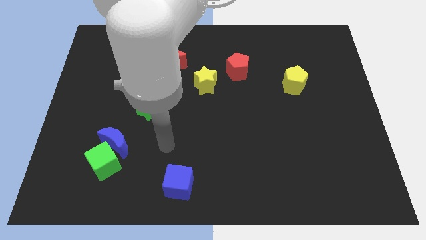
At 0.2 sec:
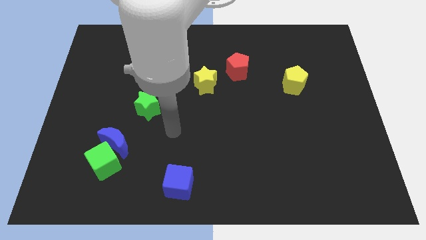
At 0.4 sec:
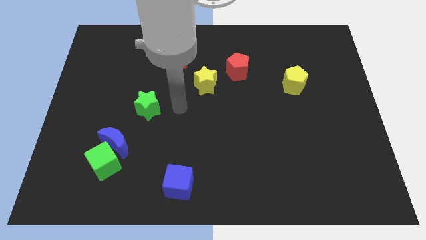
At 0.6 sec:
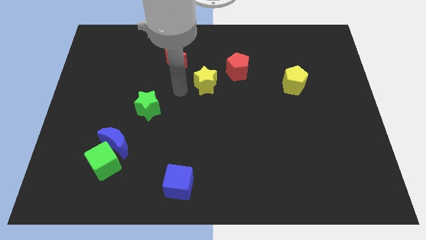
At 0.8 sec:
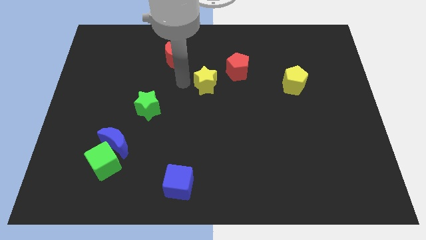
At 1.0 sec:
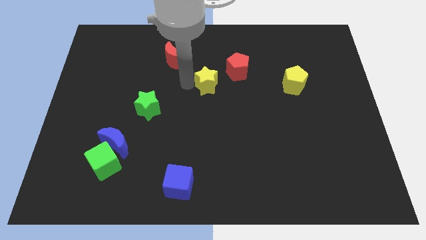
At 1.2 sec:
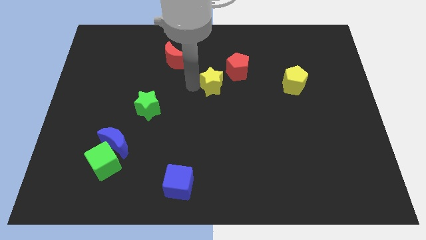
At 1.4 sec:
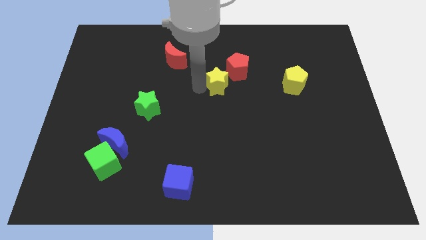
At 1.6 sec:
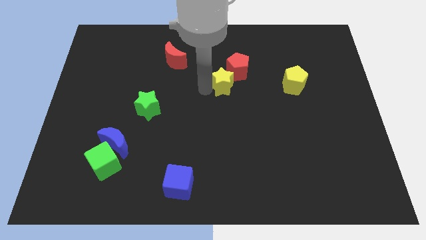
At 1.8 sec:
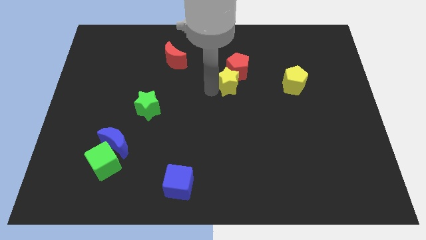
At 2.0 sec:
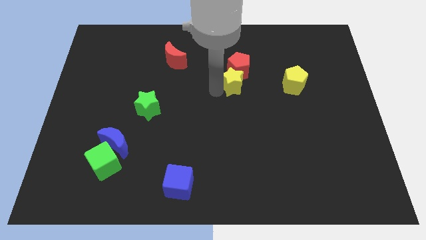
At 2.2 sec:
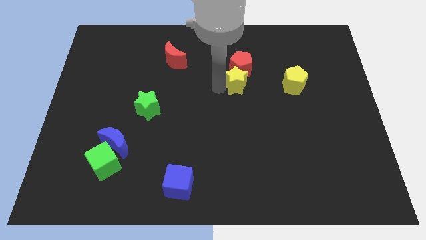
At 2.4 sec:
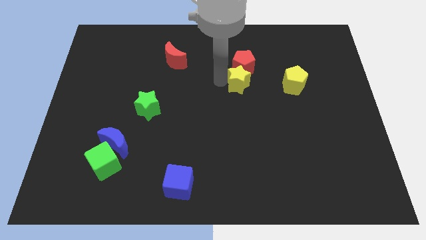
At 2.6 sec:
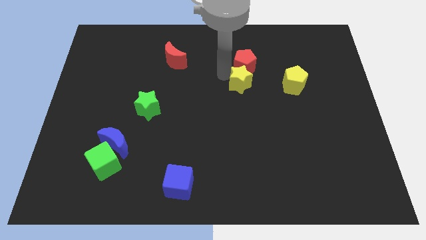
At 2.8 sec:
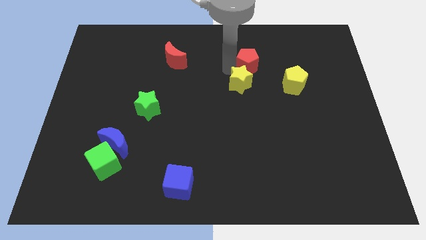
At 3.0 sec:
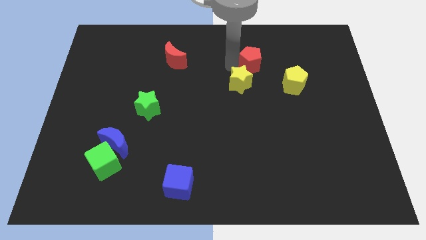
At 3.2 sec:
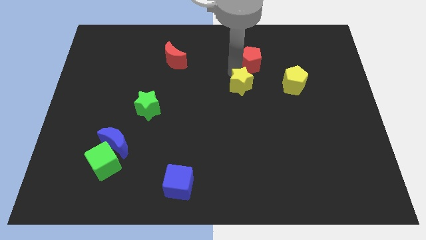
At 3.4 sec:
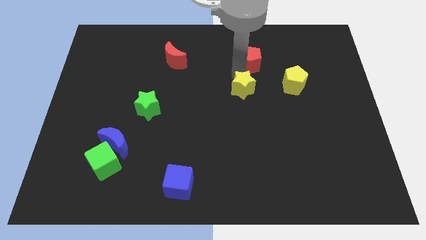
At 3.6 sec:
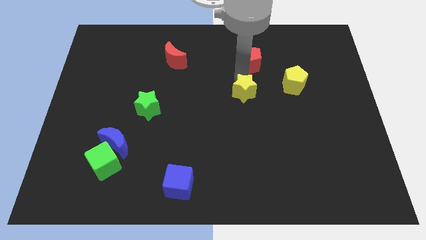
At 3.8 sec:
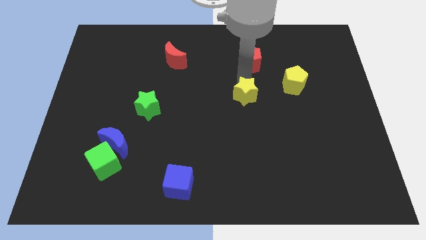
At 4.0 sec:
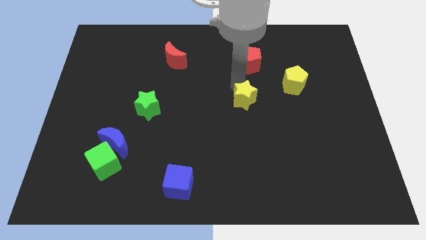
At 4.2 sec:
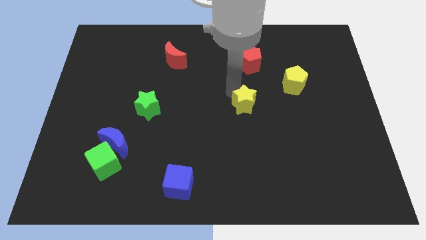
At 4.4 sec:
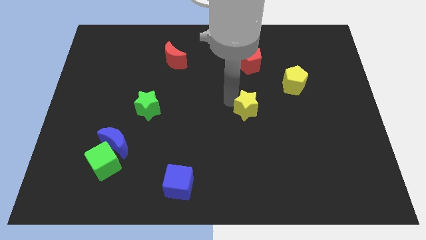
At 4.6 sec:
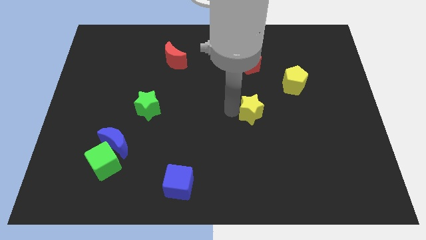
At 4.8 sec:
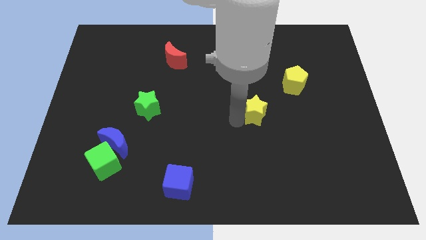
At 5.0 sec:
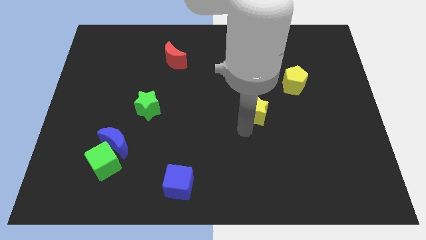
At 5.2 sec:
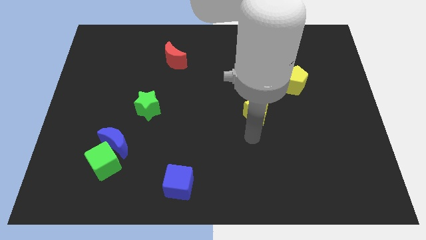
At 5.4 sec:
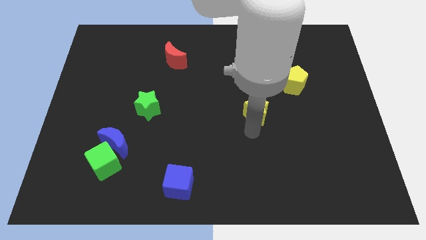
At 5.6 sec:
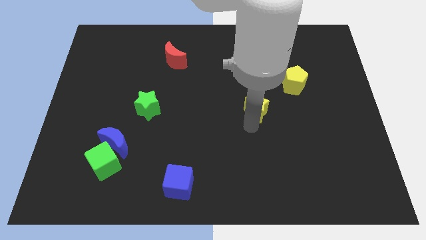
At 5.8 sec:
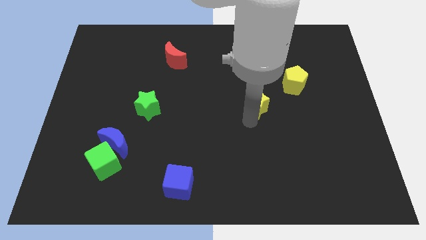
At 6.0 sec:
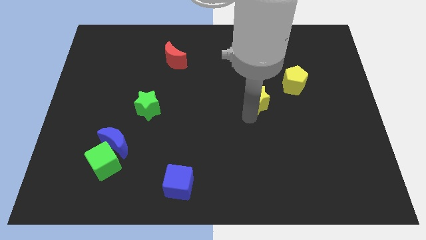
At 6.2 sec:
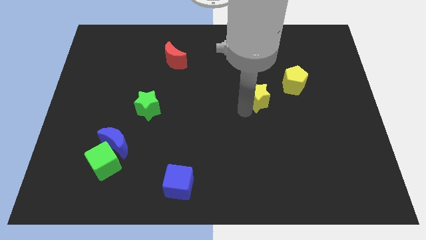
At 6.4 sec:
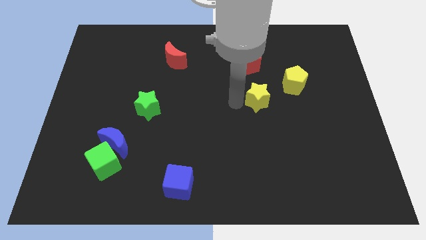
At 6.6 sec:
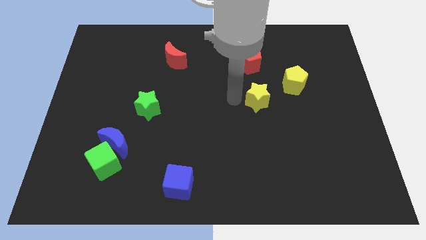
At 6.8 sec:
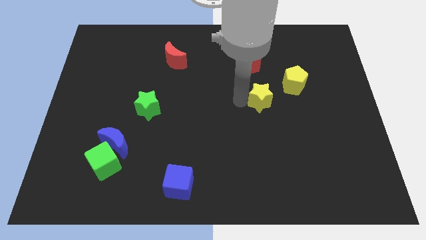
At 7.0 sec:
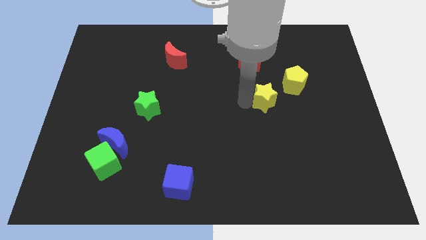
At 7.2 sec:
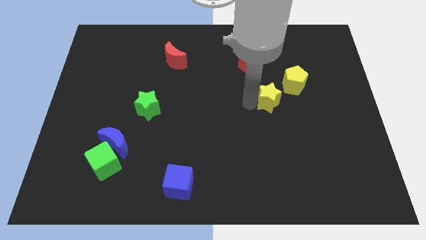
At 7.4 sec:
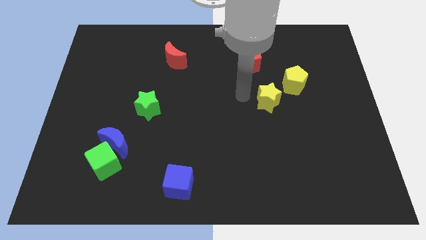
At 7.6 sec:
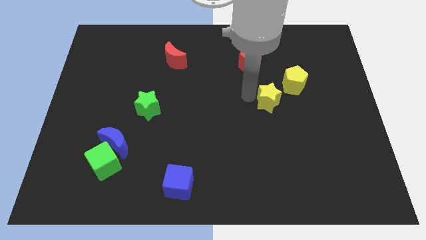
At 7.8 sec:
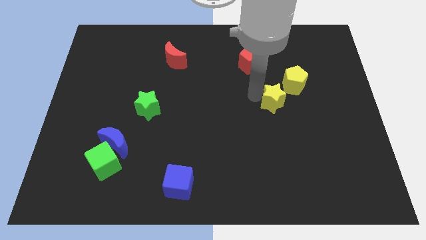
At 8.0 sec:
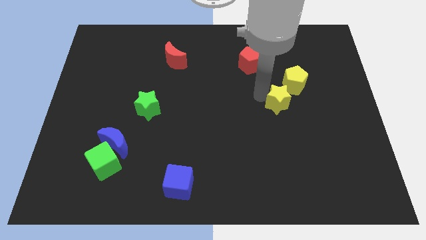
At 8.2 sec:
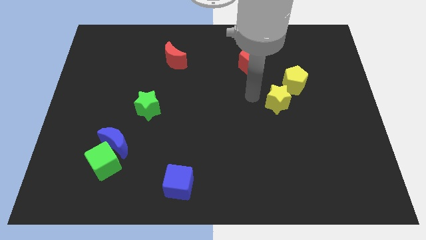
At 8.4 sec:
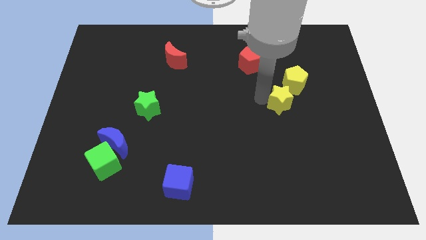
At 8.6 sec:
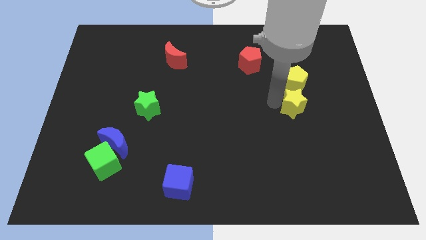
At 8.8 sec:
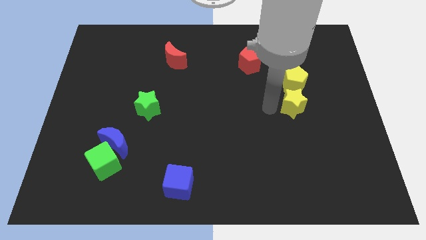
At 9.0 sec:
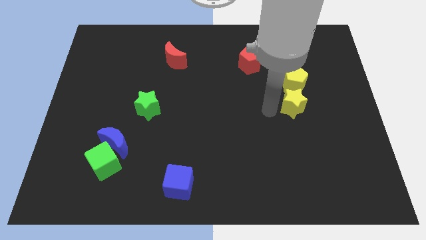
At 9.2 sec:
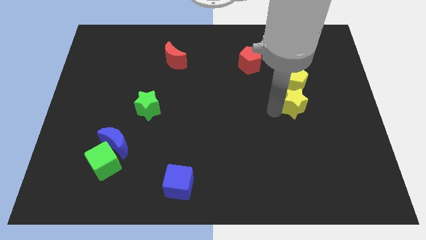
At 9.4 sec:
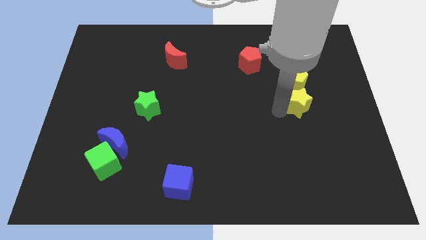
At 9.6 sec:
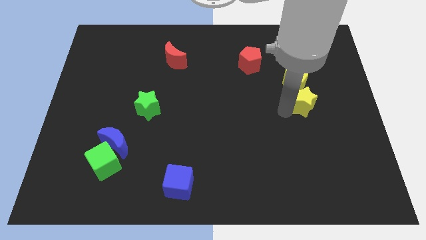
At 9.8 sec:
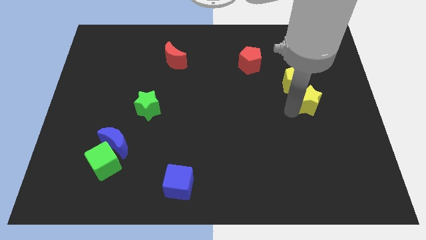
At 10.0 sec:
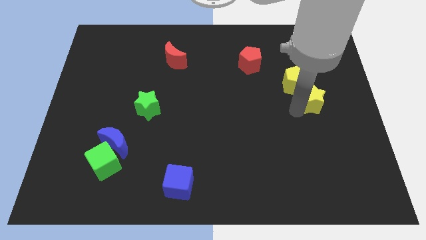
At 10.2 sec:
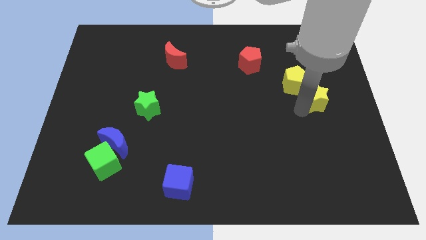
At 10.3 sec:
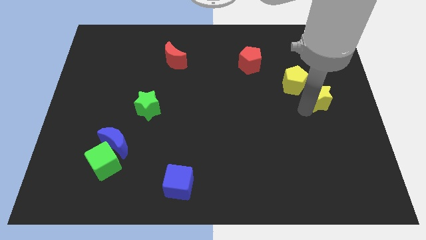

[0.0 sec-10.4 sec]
put the yellow star to the right side of the board
